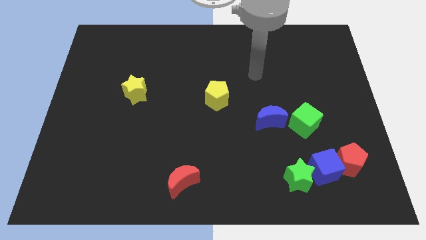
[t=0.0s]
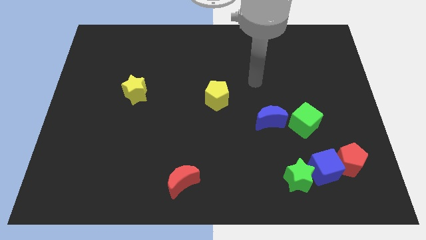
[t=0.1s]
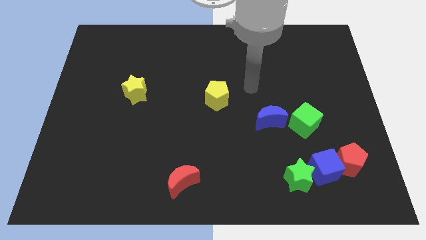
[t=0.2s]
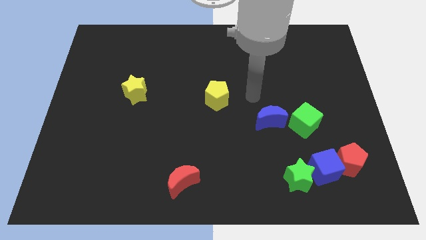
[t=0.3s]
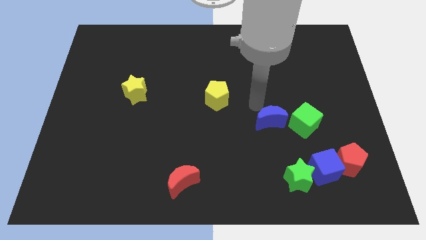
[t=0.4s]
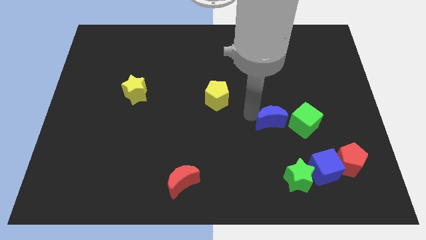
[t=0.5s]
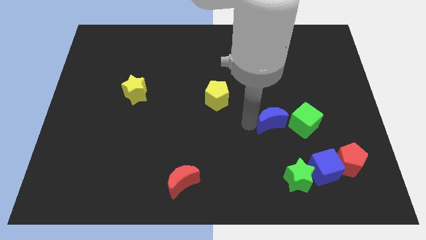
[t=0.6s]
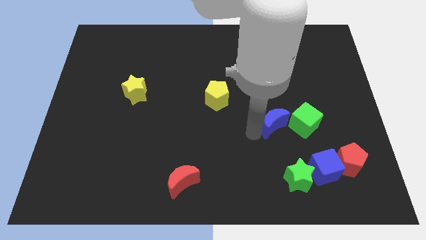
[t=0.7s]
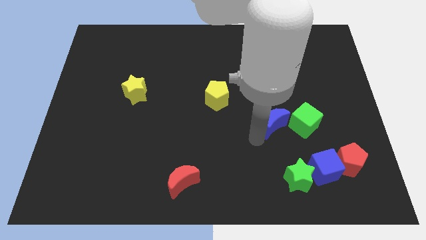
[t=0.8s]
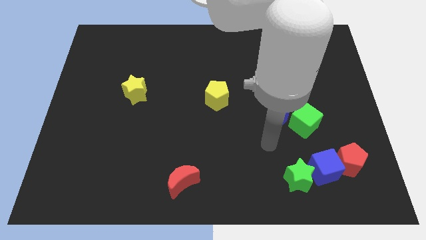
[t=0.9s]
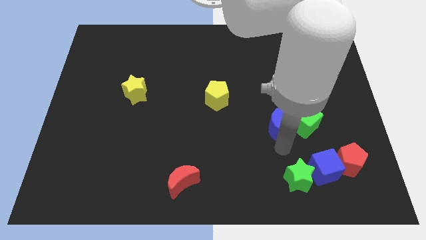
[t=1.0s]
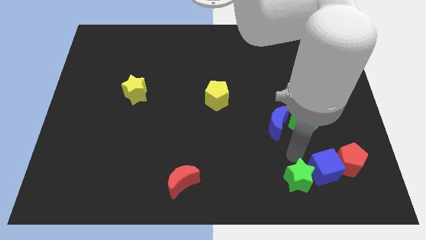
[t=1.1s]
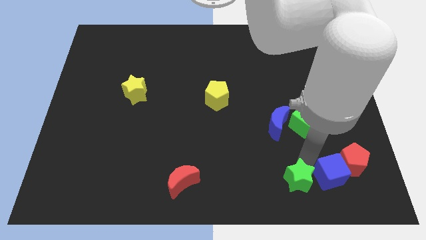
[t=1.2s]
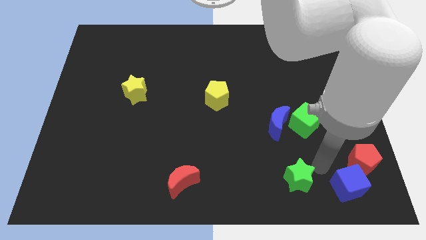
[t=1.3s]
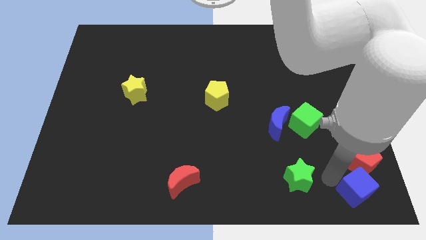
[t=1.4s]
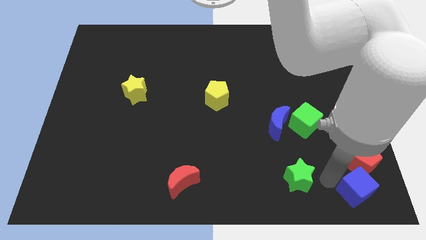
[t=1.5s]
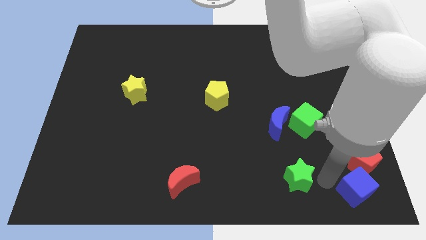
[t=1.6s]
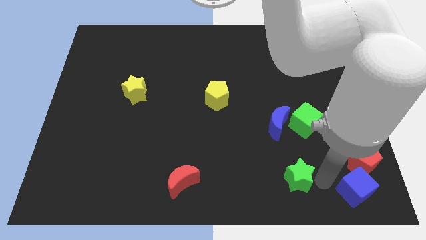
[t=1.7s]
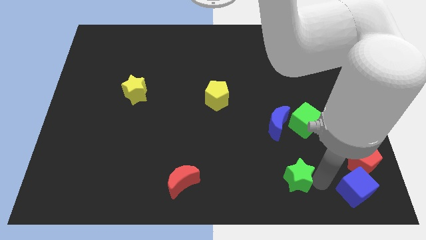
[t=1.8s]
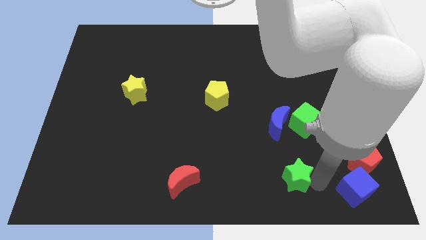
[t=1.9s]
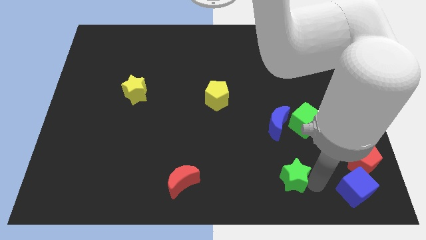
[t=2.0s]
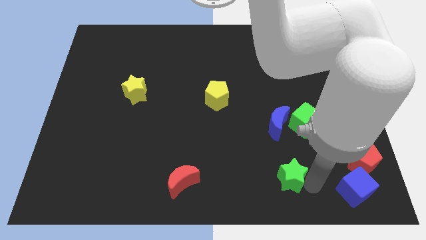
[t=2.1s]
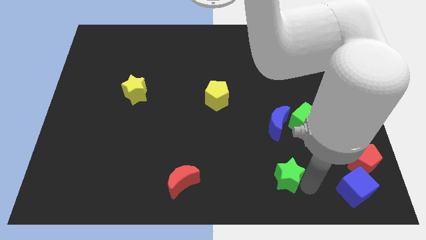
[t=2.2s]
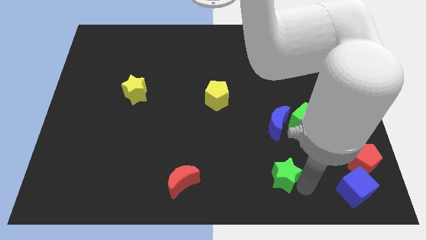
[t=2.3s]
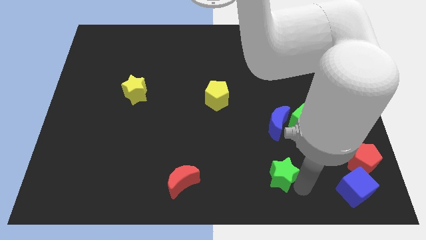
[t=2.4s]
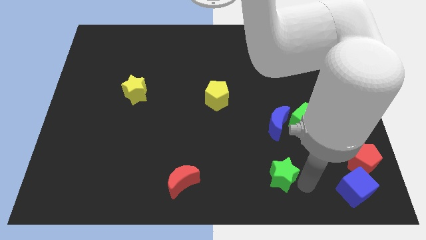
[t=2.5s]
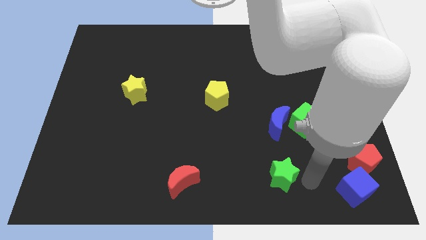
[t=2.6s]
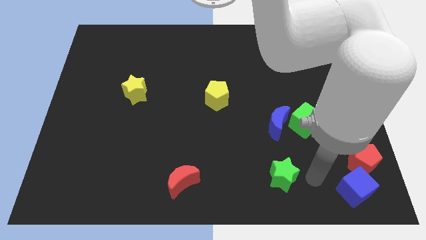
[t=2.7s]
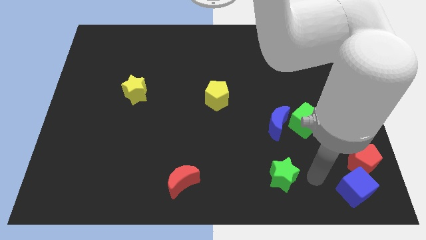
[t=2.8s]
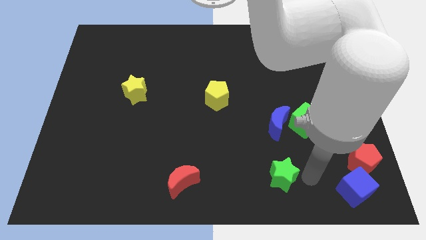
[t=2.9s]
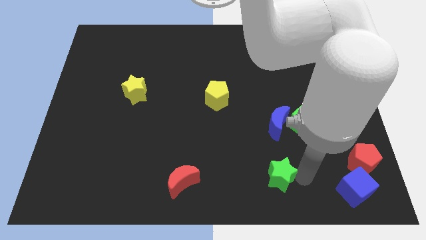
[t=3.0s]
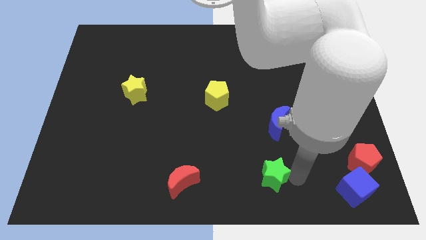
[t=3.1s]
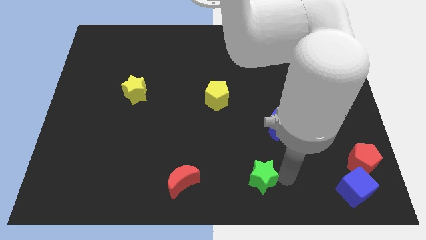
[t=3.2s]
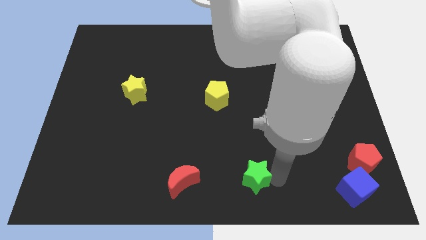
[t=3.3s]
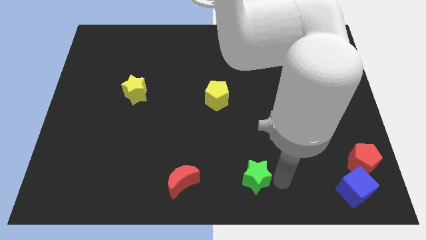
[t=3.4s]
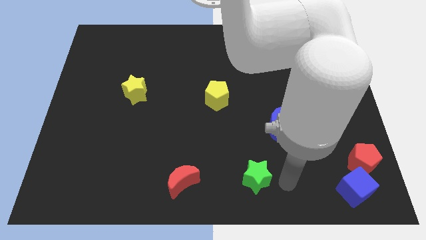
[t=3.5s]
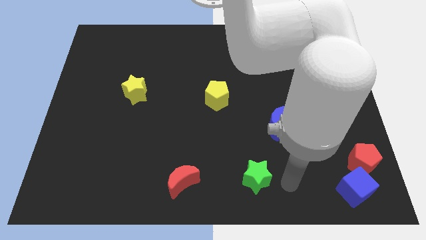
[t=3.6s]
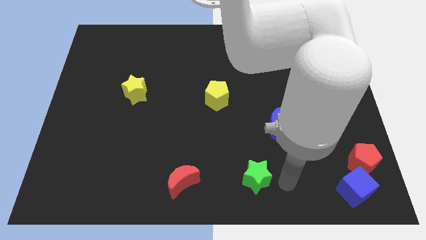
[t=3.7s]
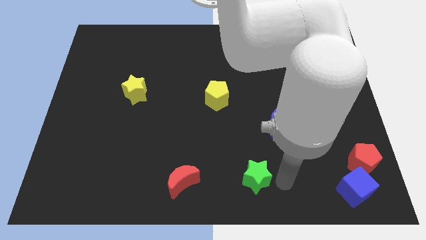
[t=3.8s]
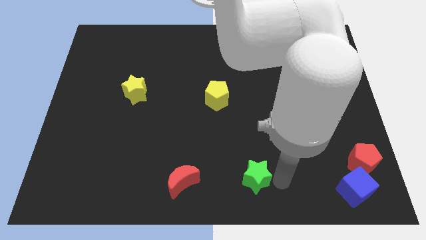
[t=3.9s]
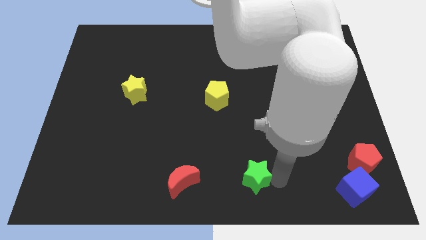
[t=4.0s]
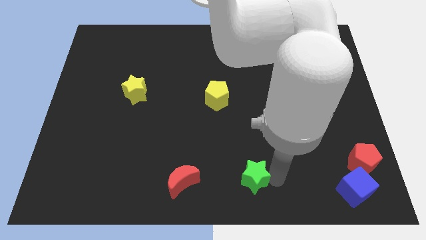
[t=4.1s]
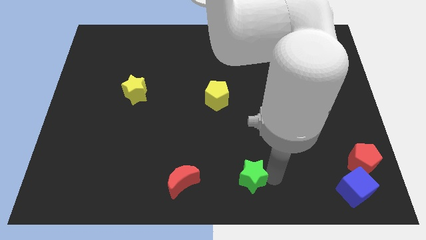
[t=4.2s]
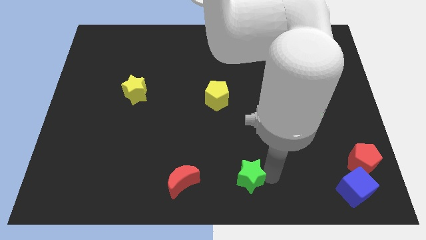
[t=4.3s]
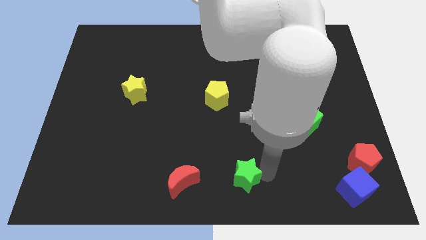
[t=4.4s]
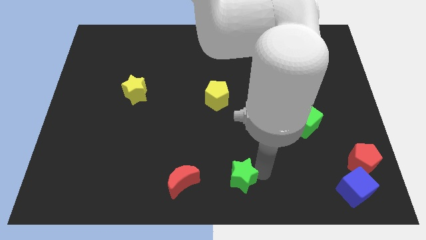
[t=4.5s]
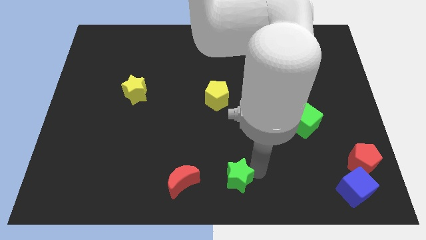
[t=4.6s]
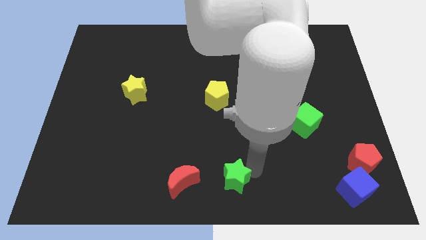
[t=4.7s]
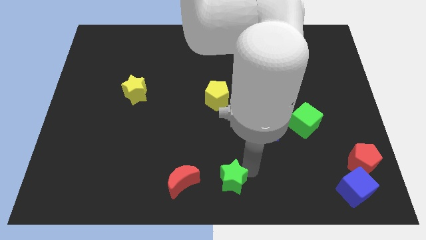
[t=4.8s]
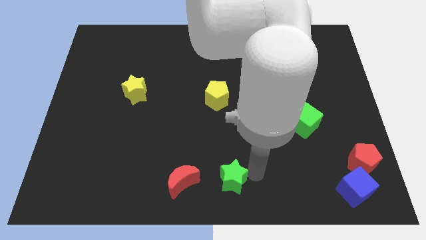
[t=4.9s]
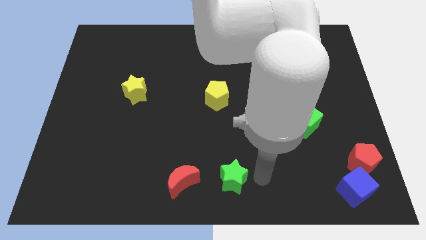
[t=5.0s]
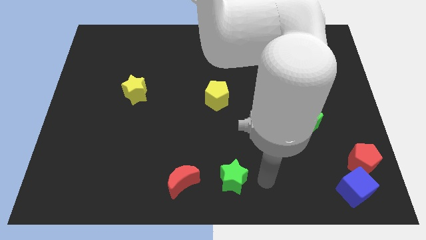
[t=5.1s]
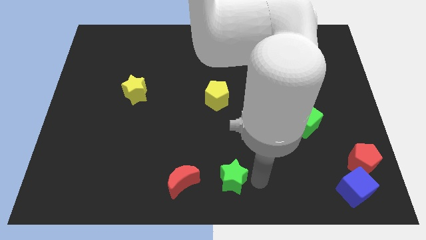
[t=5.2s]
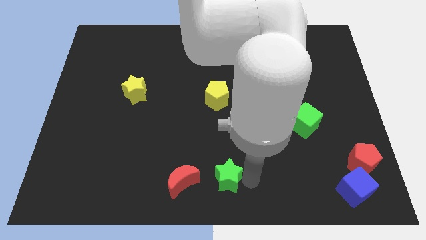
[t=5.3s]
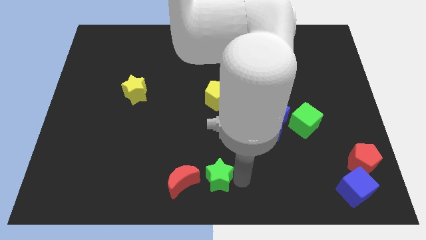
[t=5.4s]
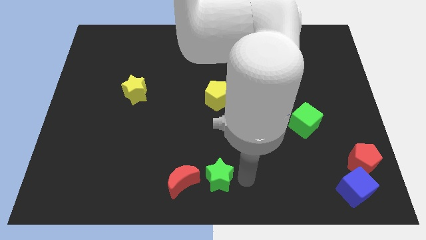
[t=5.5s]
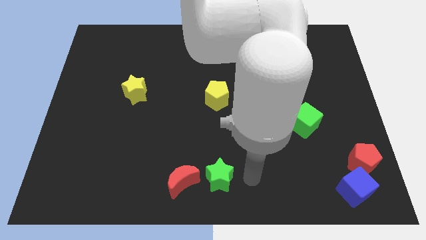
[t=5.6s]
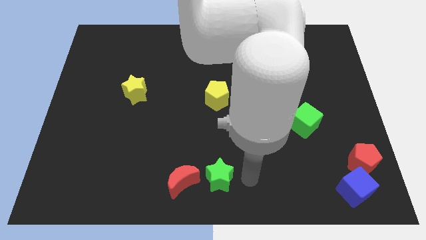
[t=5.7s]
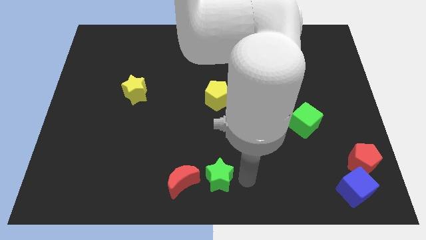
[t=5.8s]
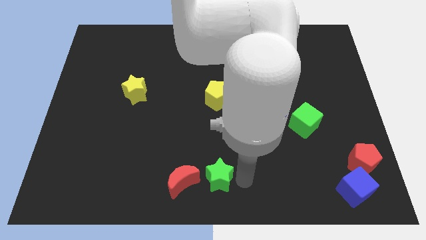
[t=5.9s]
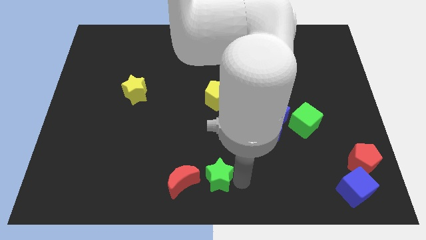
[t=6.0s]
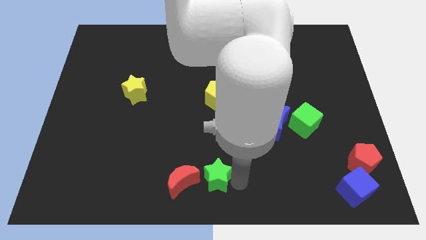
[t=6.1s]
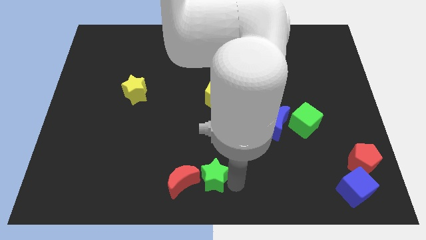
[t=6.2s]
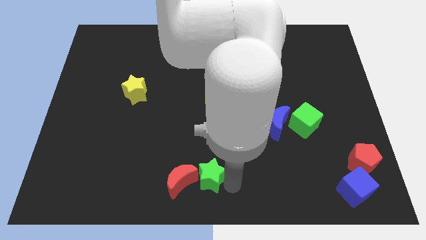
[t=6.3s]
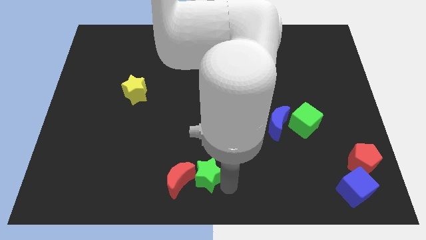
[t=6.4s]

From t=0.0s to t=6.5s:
slide the green star close to the red moon
